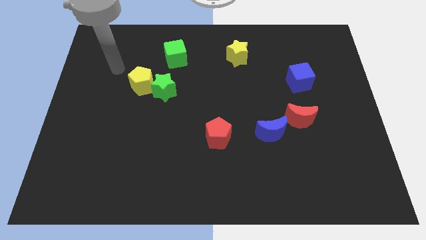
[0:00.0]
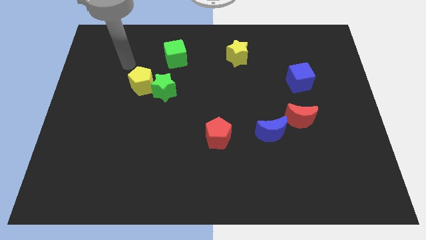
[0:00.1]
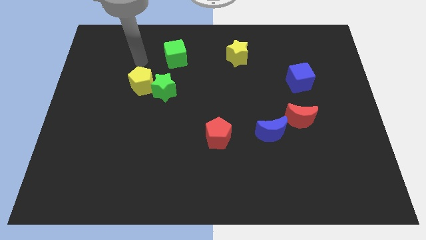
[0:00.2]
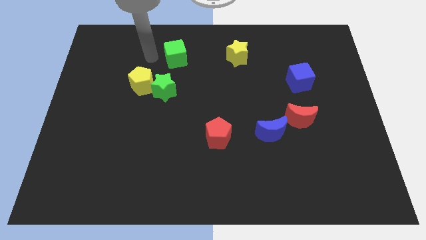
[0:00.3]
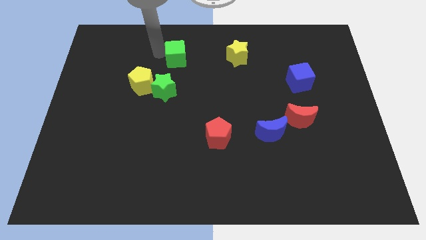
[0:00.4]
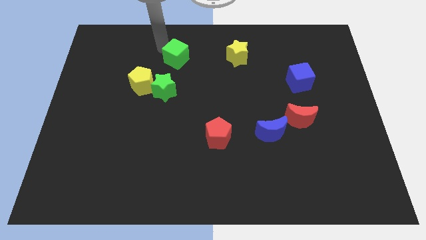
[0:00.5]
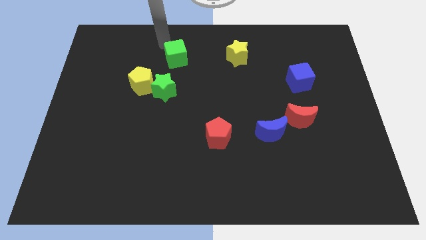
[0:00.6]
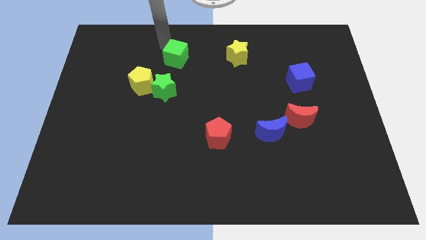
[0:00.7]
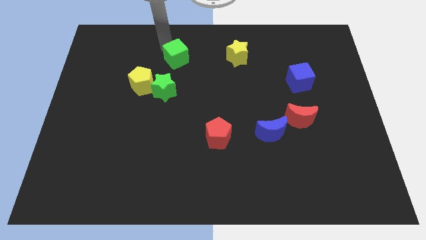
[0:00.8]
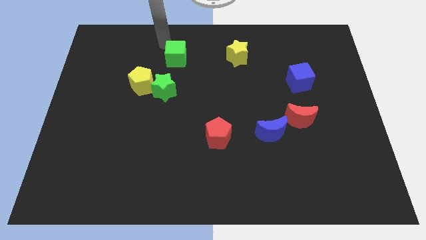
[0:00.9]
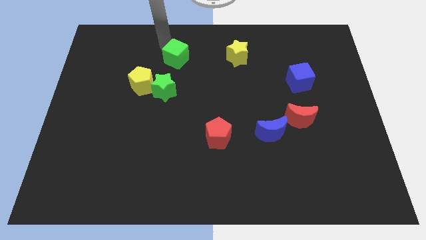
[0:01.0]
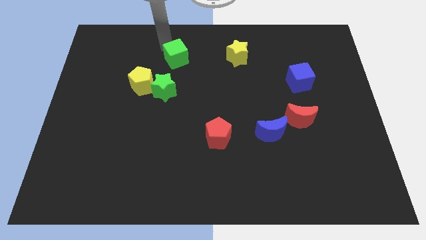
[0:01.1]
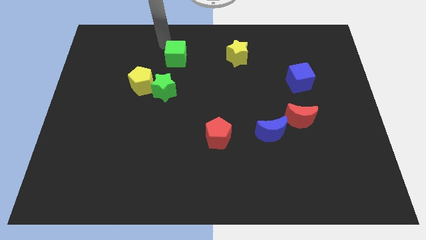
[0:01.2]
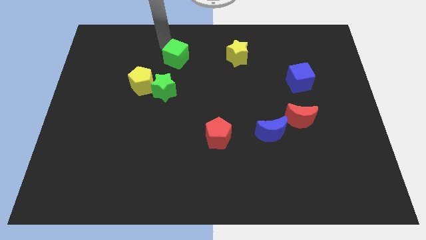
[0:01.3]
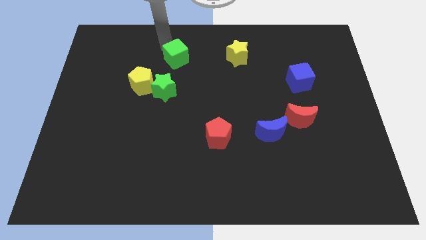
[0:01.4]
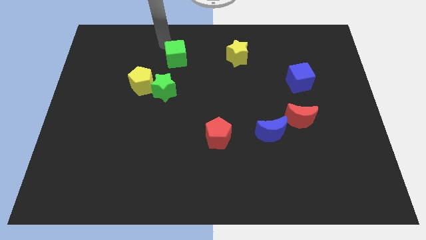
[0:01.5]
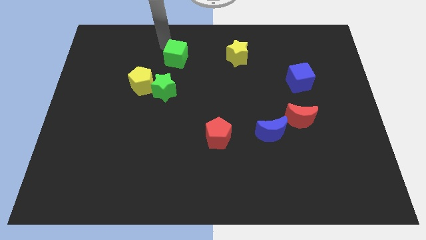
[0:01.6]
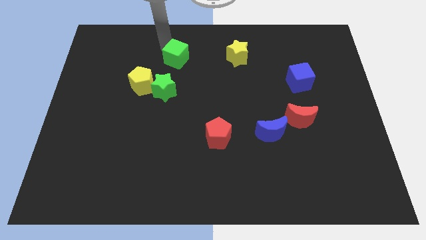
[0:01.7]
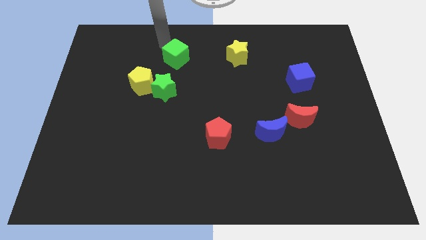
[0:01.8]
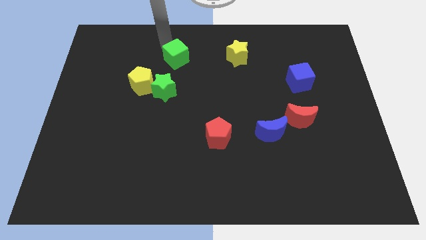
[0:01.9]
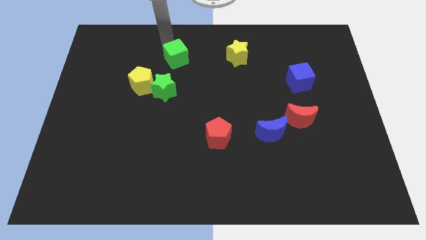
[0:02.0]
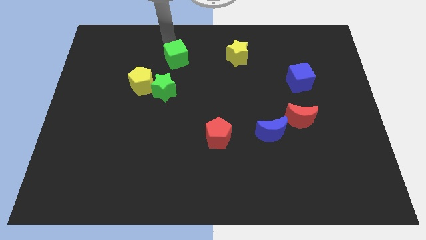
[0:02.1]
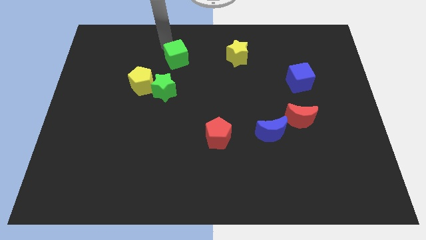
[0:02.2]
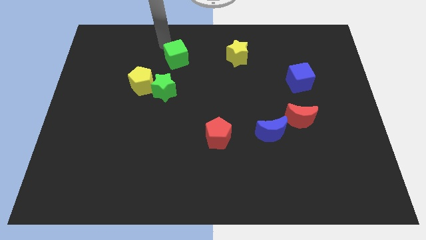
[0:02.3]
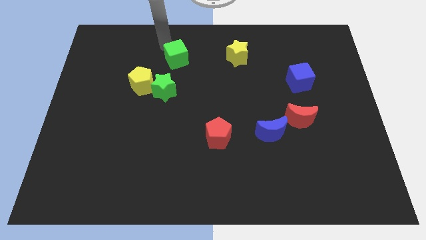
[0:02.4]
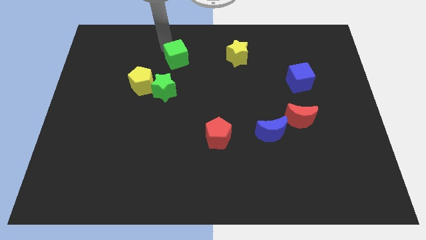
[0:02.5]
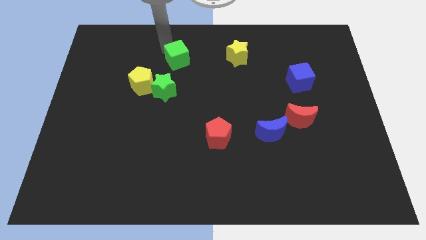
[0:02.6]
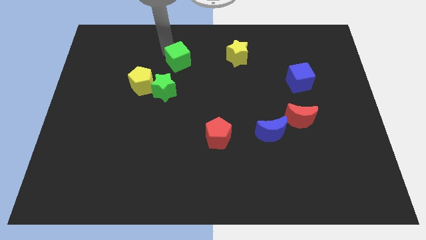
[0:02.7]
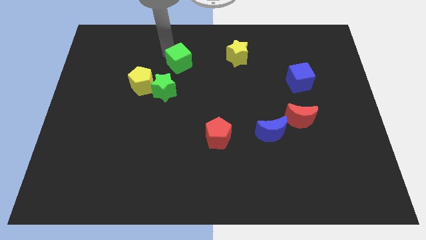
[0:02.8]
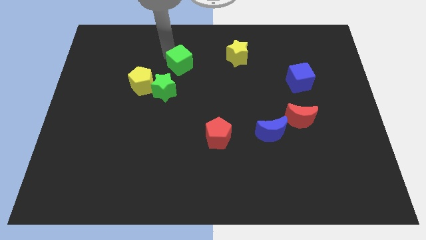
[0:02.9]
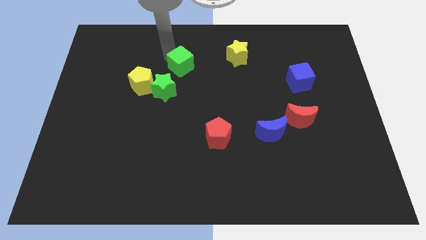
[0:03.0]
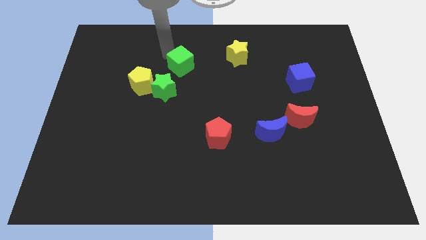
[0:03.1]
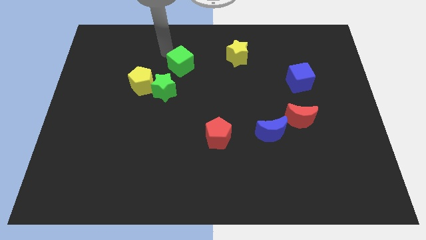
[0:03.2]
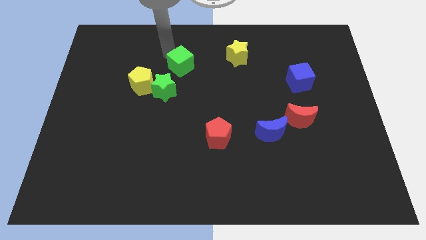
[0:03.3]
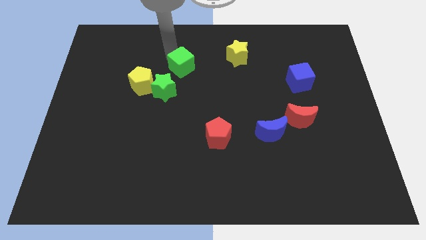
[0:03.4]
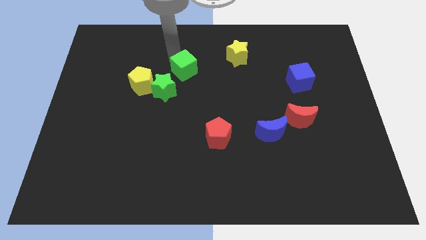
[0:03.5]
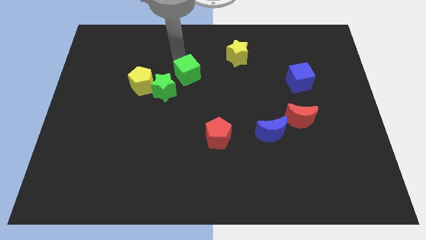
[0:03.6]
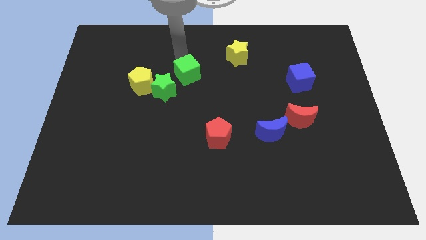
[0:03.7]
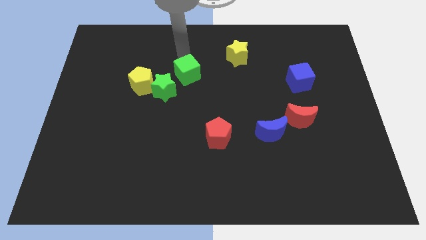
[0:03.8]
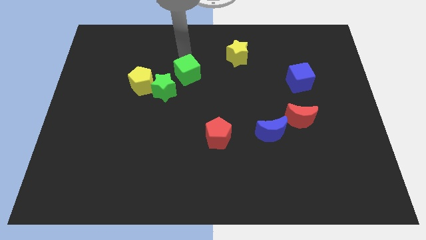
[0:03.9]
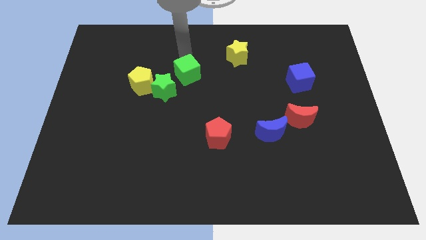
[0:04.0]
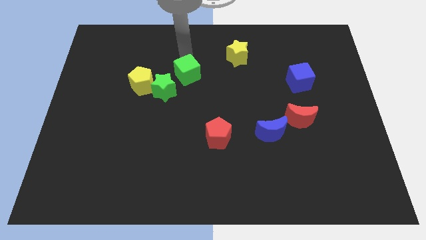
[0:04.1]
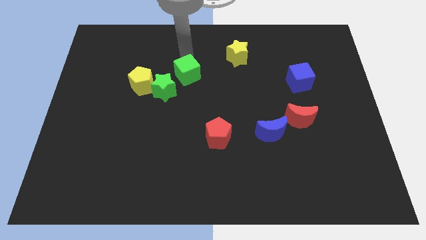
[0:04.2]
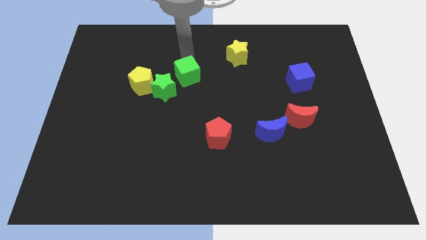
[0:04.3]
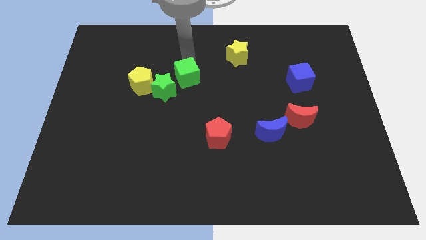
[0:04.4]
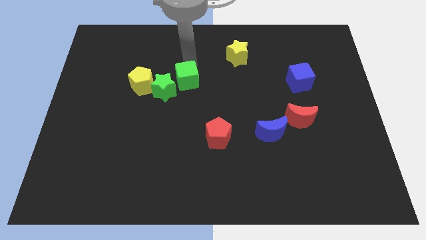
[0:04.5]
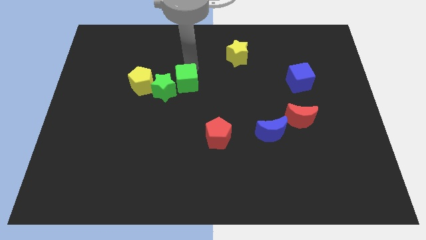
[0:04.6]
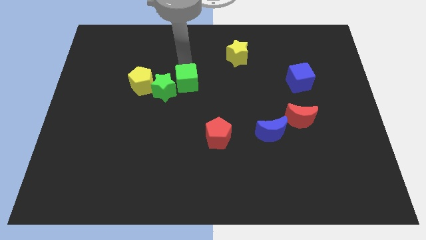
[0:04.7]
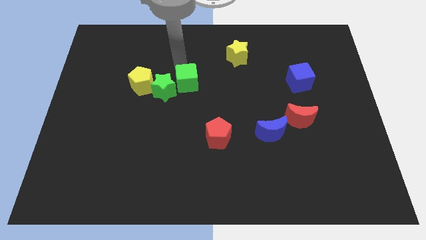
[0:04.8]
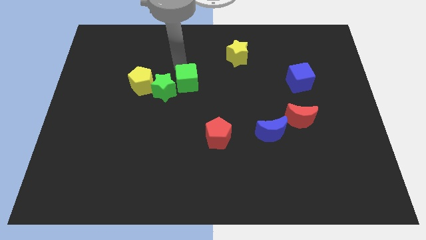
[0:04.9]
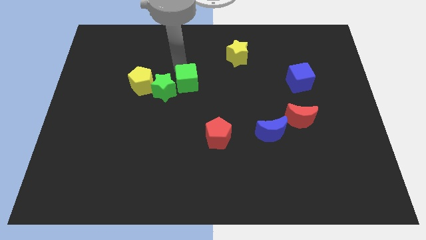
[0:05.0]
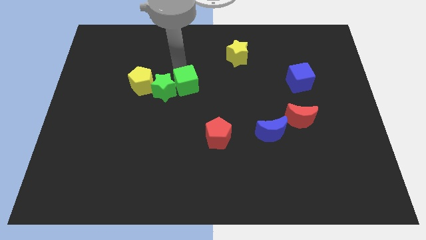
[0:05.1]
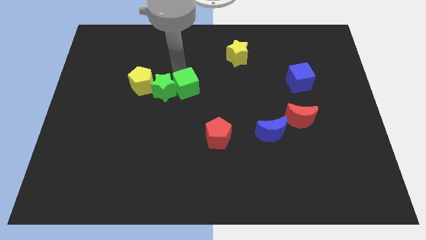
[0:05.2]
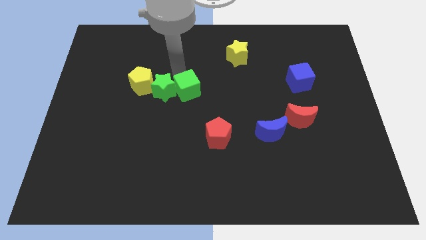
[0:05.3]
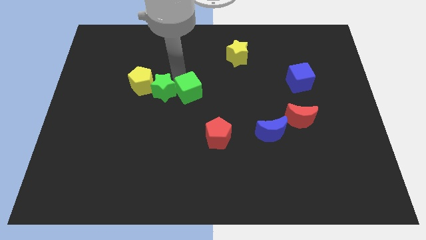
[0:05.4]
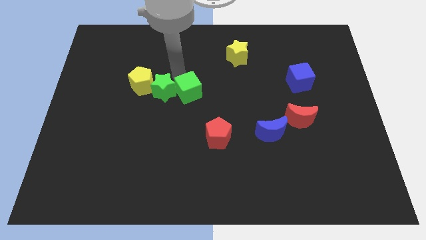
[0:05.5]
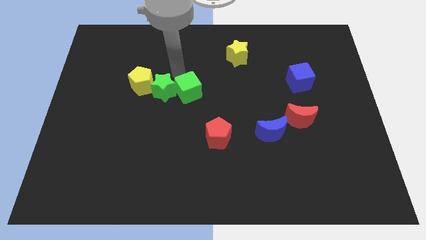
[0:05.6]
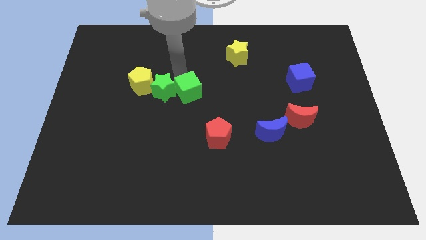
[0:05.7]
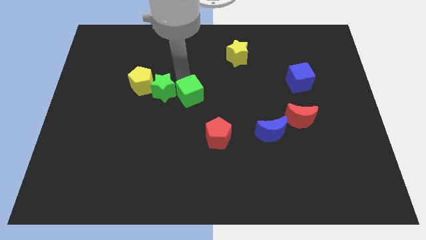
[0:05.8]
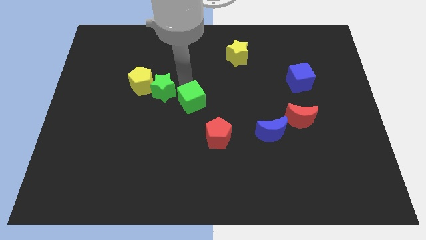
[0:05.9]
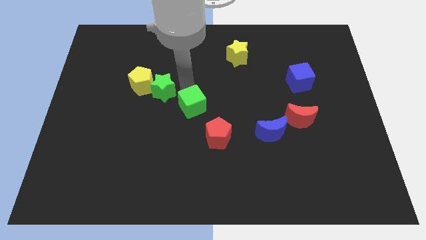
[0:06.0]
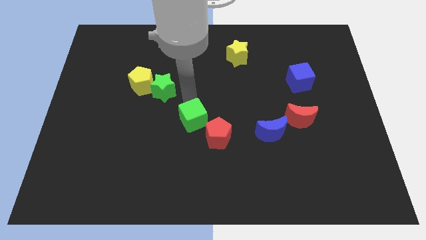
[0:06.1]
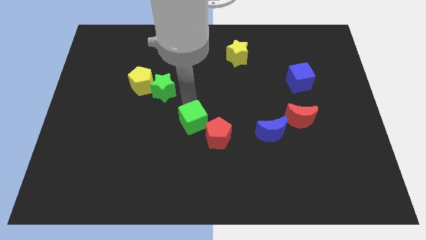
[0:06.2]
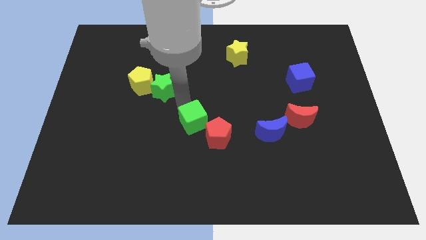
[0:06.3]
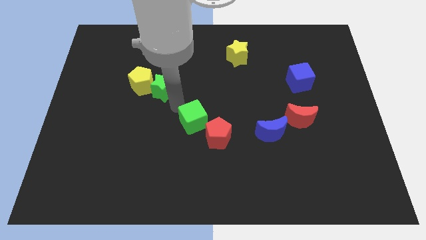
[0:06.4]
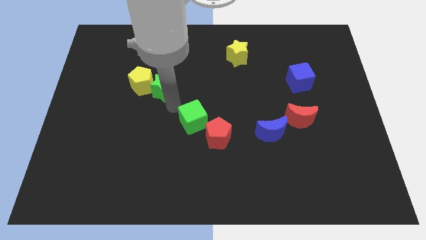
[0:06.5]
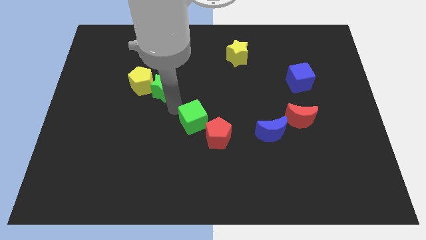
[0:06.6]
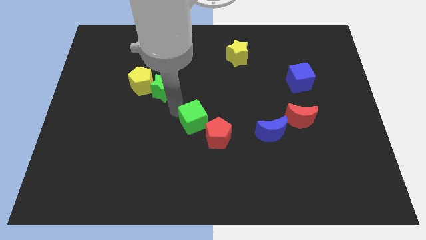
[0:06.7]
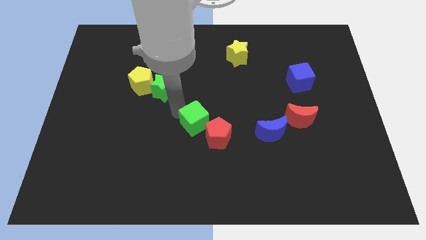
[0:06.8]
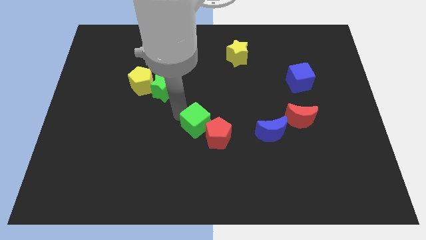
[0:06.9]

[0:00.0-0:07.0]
move the green cube to the red pentagon

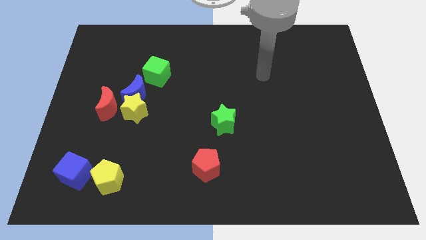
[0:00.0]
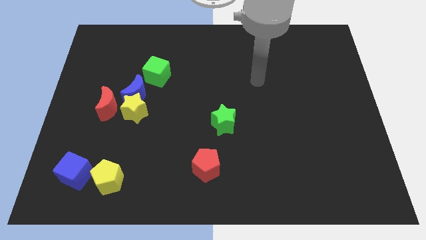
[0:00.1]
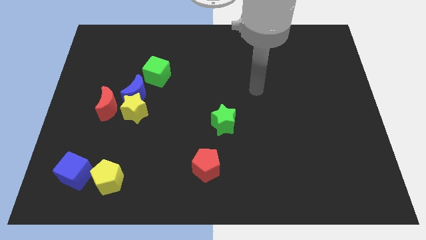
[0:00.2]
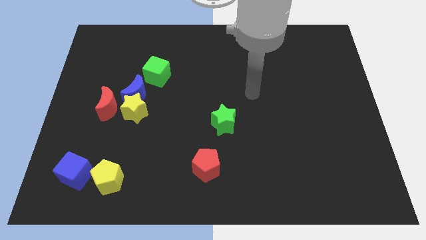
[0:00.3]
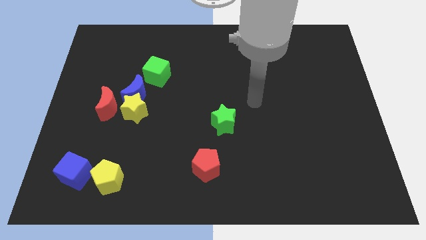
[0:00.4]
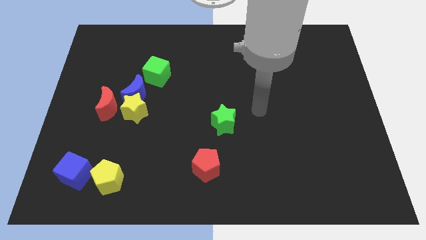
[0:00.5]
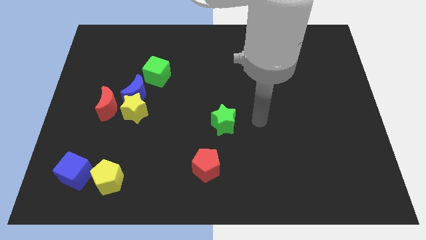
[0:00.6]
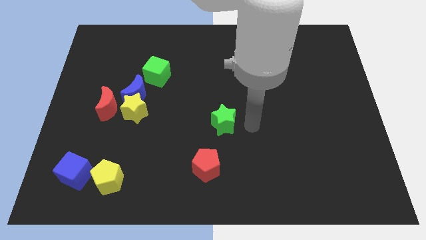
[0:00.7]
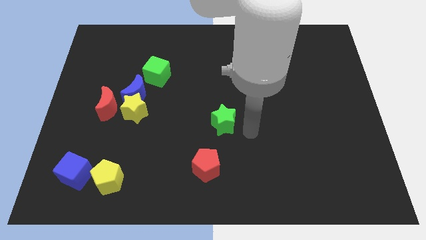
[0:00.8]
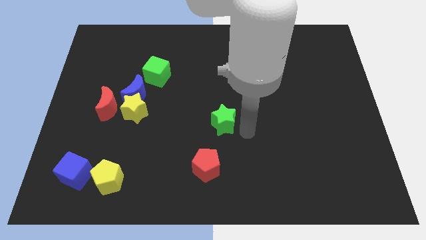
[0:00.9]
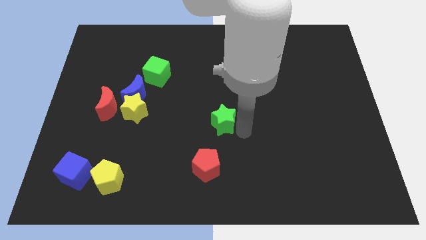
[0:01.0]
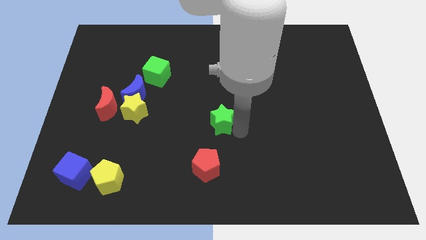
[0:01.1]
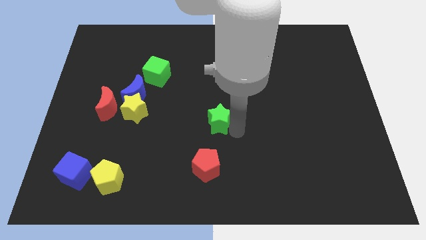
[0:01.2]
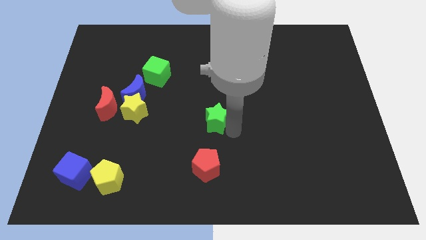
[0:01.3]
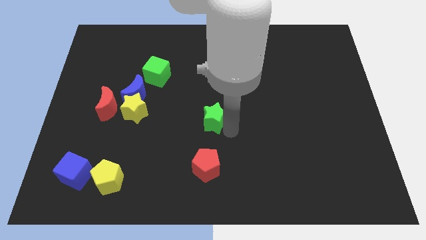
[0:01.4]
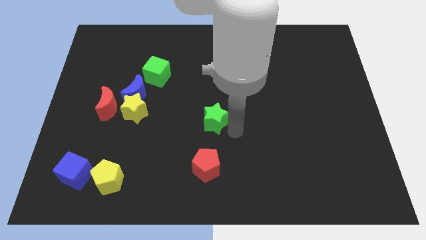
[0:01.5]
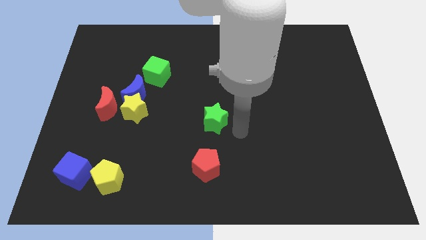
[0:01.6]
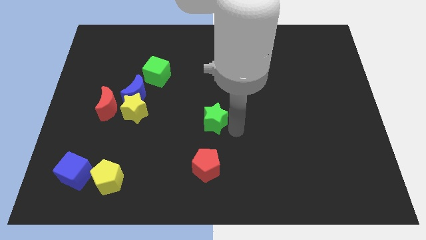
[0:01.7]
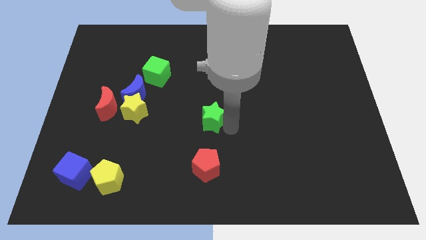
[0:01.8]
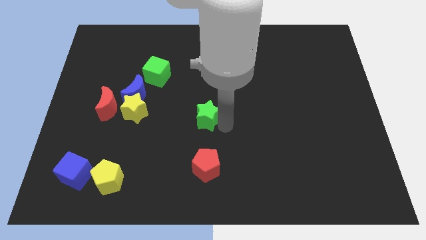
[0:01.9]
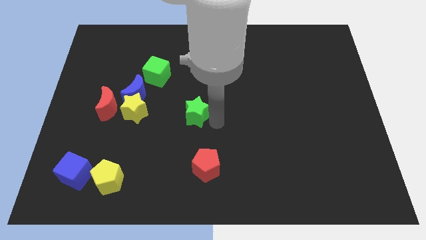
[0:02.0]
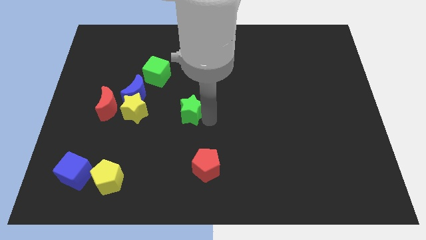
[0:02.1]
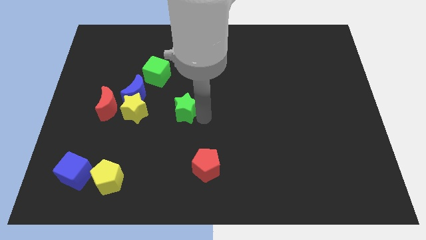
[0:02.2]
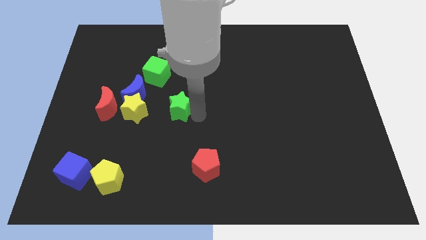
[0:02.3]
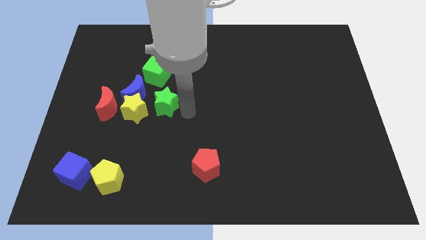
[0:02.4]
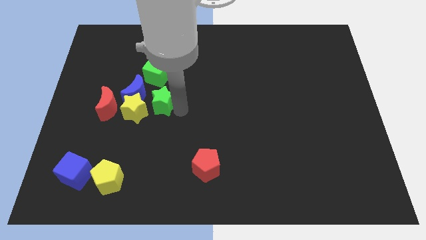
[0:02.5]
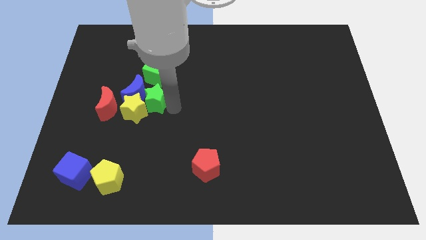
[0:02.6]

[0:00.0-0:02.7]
slide the green star next to the blue moon
